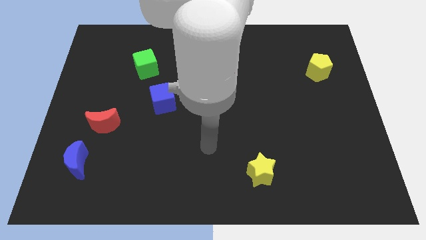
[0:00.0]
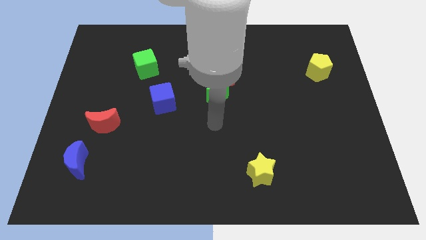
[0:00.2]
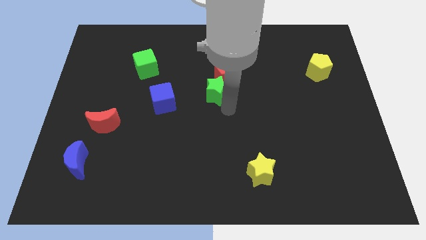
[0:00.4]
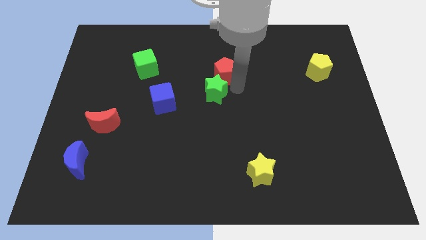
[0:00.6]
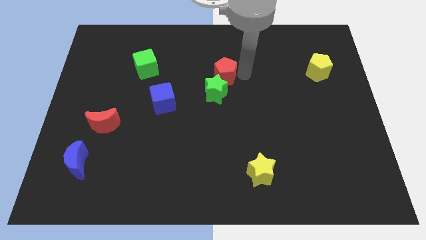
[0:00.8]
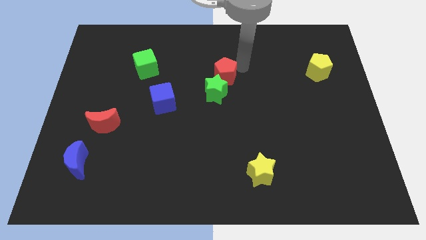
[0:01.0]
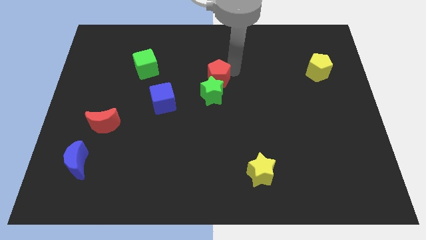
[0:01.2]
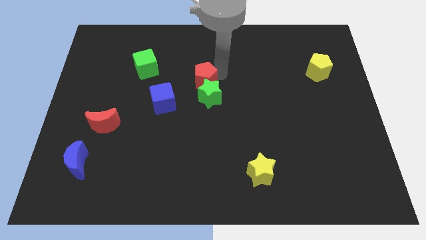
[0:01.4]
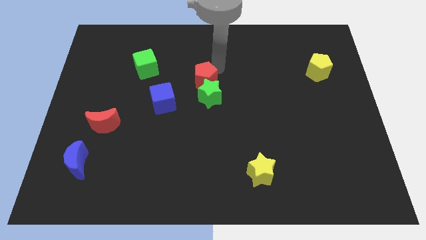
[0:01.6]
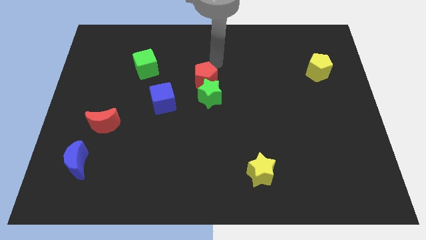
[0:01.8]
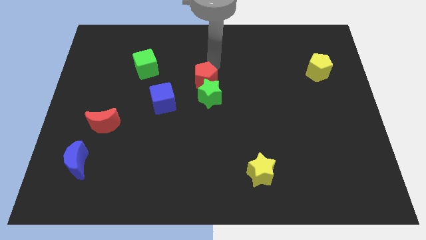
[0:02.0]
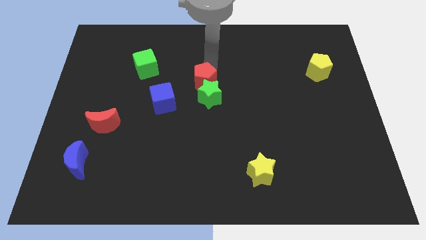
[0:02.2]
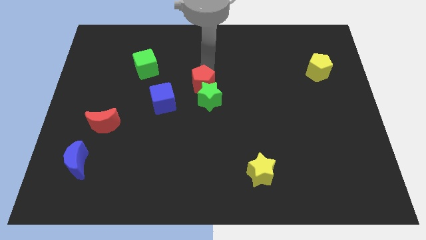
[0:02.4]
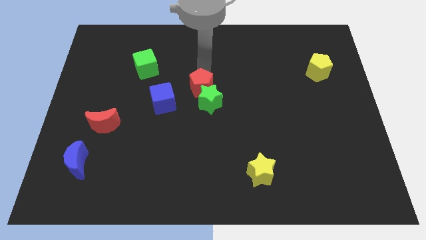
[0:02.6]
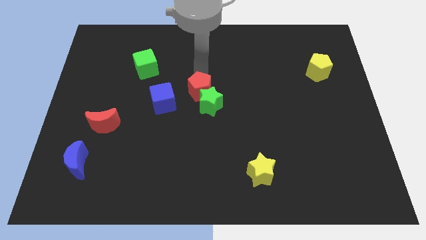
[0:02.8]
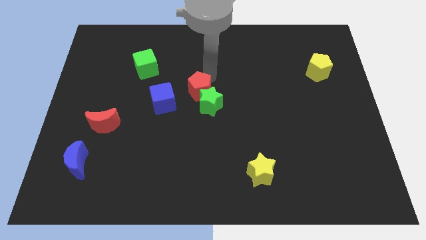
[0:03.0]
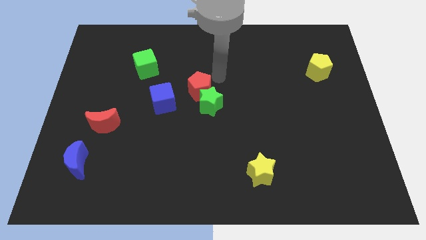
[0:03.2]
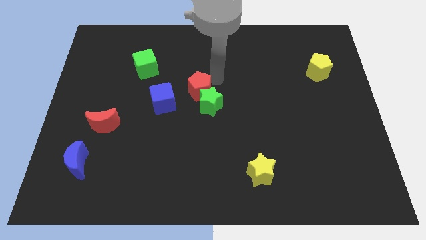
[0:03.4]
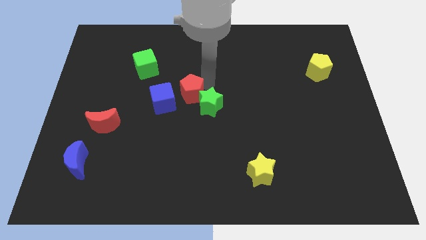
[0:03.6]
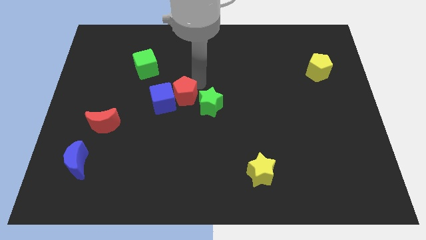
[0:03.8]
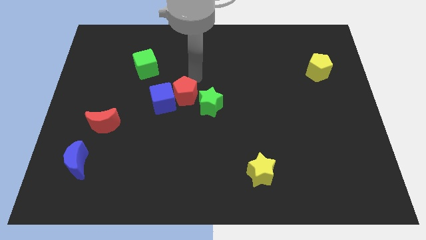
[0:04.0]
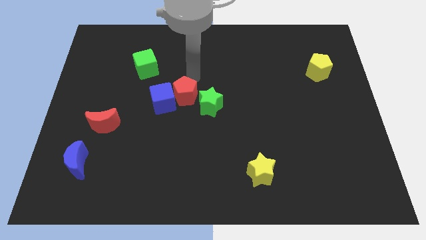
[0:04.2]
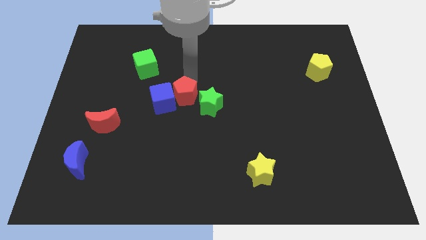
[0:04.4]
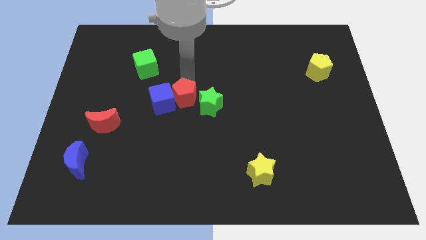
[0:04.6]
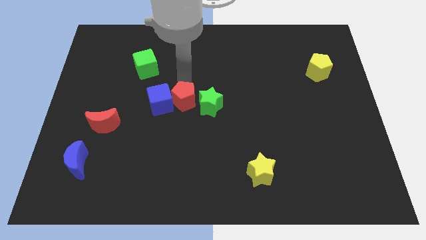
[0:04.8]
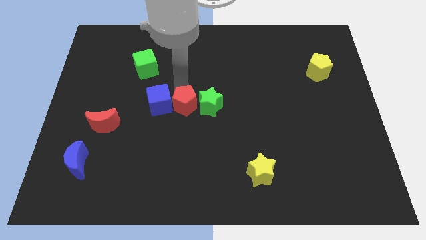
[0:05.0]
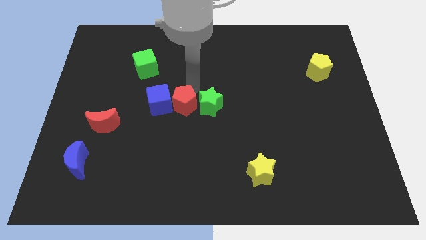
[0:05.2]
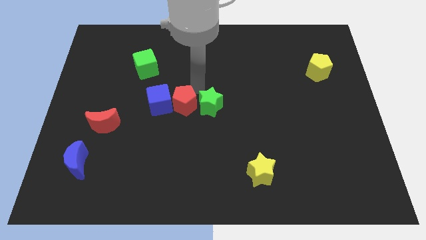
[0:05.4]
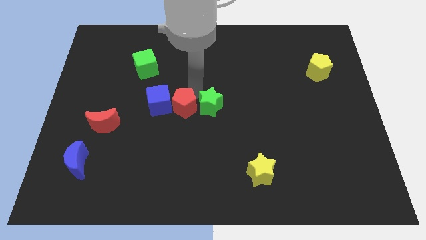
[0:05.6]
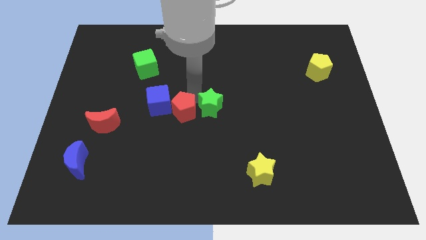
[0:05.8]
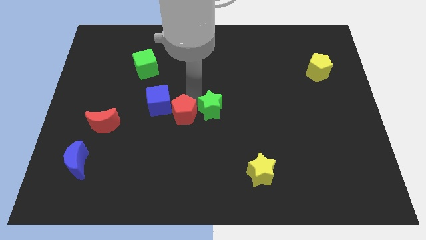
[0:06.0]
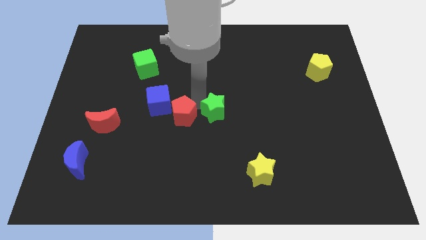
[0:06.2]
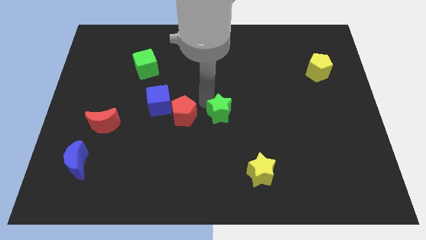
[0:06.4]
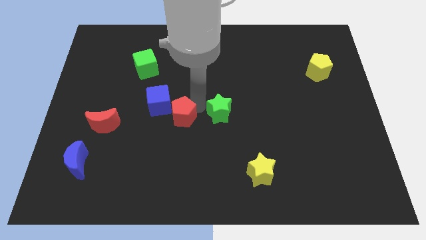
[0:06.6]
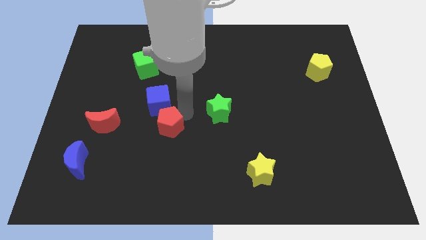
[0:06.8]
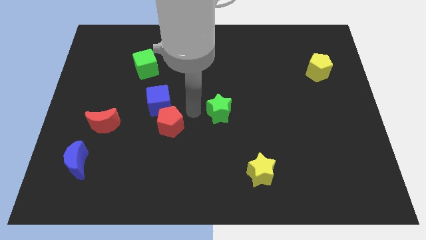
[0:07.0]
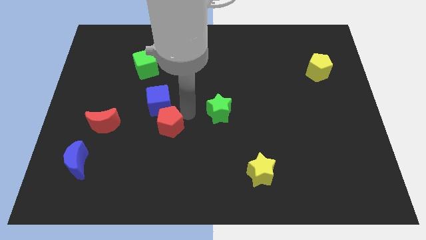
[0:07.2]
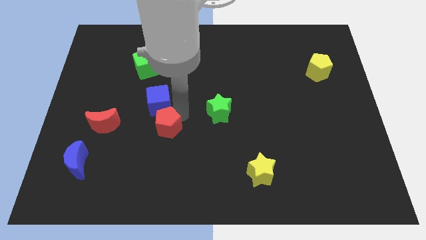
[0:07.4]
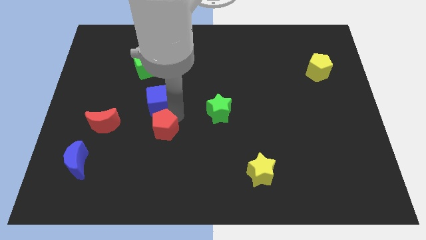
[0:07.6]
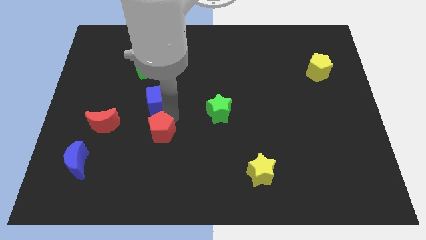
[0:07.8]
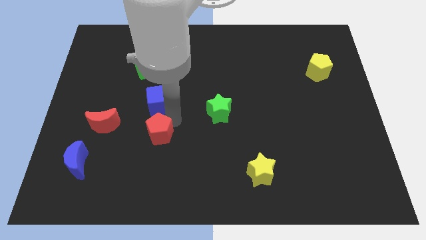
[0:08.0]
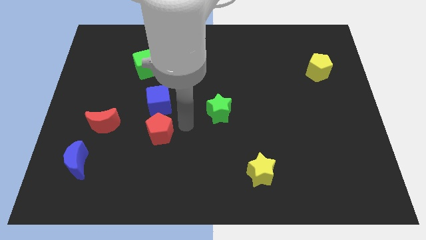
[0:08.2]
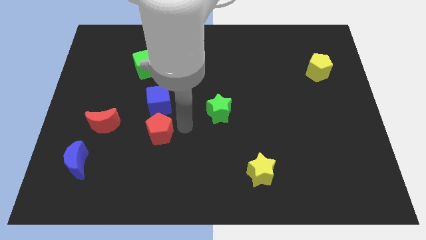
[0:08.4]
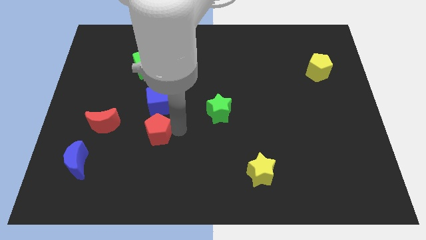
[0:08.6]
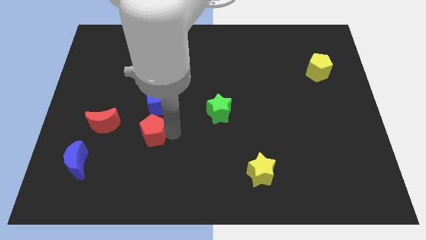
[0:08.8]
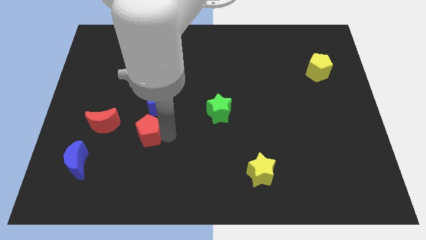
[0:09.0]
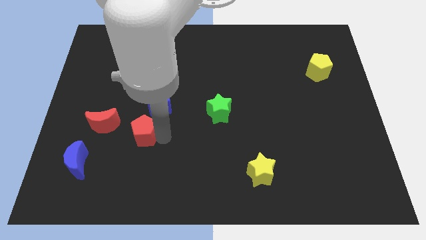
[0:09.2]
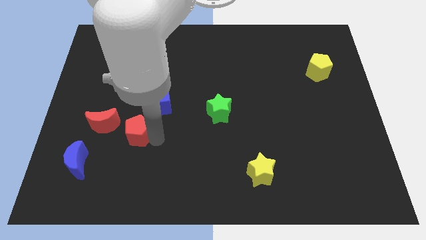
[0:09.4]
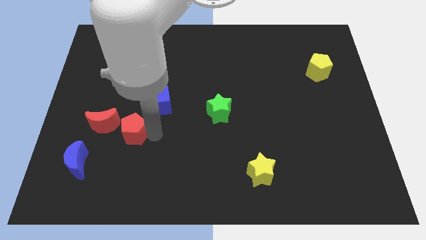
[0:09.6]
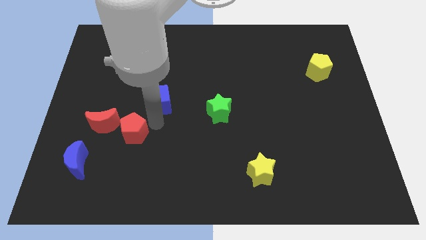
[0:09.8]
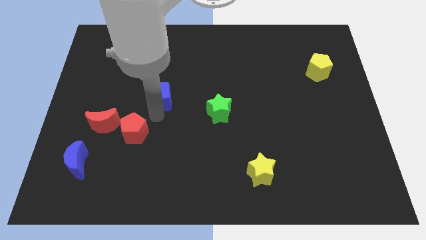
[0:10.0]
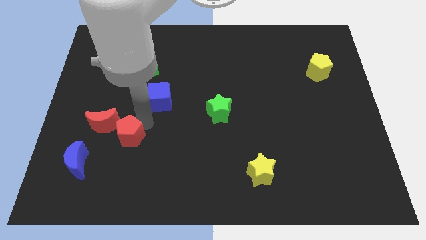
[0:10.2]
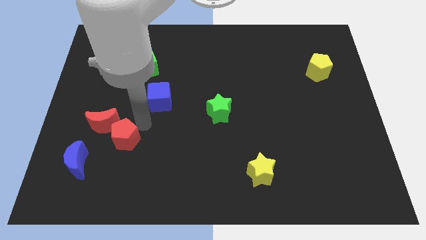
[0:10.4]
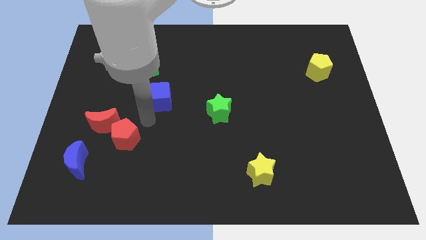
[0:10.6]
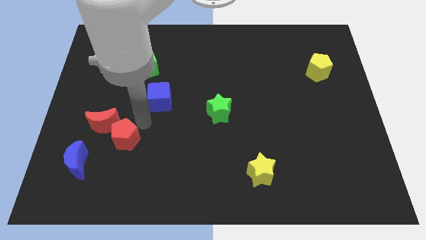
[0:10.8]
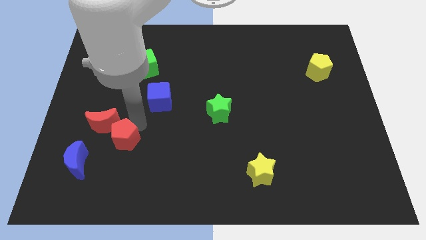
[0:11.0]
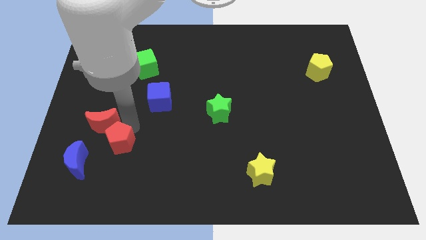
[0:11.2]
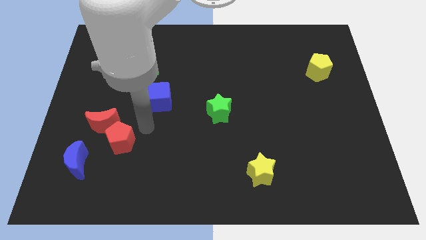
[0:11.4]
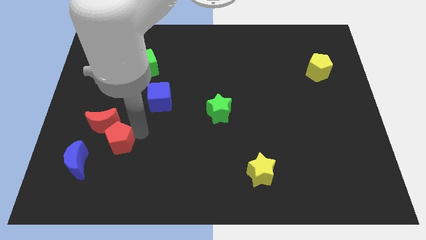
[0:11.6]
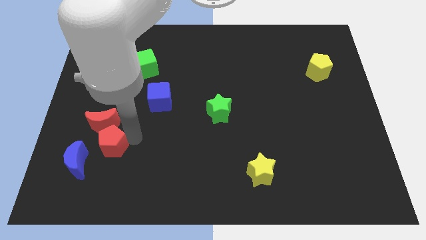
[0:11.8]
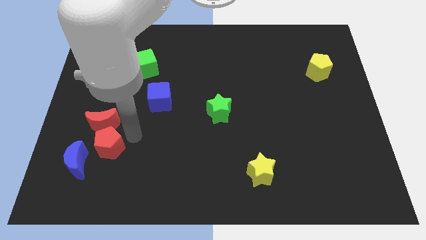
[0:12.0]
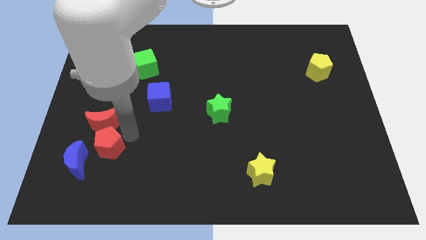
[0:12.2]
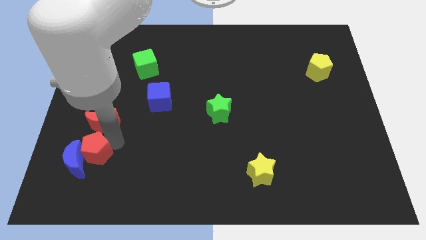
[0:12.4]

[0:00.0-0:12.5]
push the red pentagon towards the blue moon
